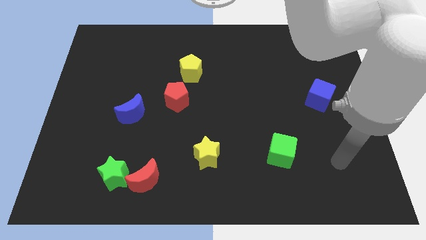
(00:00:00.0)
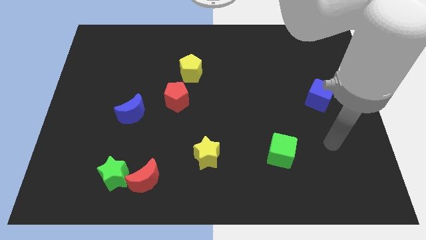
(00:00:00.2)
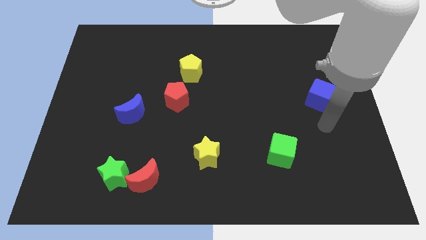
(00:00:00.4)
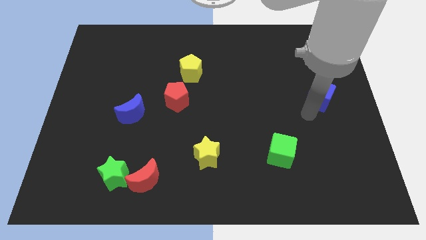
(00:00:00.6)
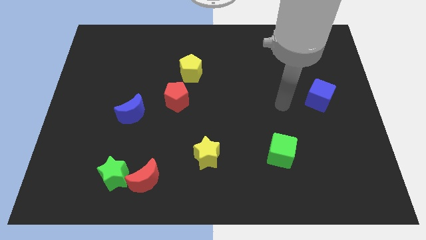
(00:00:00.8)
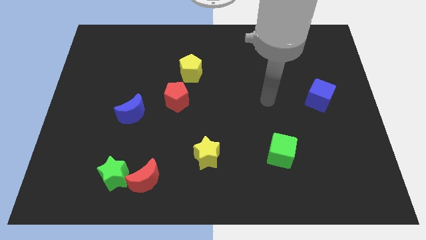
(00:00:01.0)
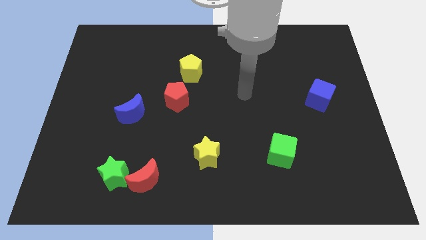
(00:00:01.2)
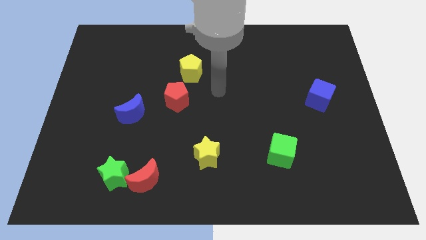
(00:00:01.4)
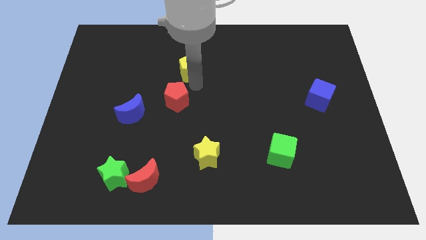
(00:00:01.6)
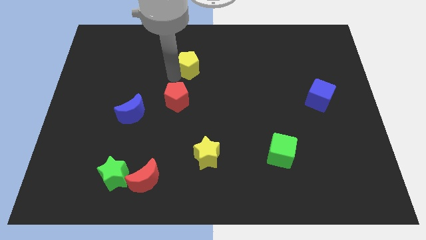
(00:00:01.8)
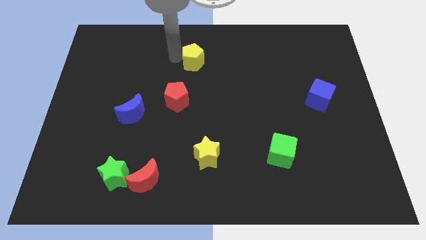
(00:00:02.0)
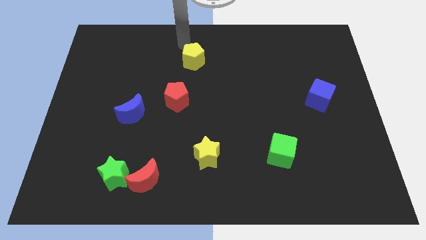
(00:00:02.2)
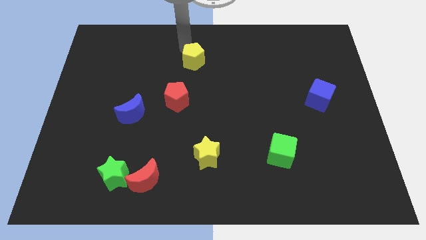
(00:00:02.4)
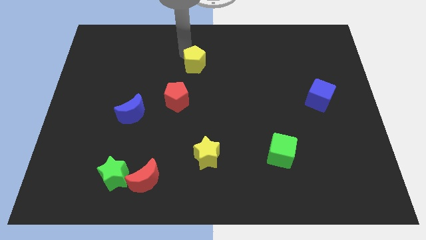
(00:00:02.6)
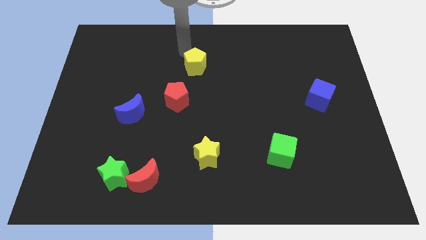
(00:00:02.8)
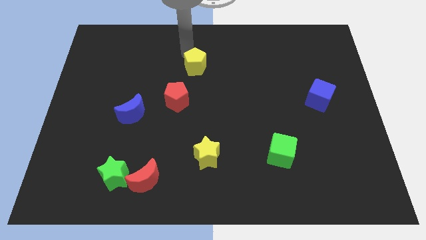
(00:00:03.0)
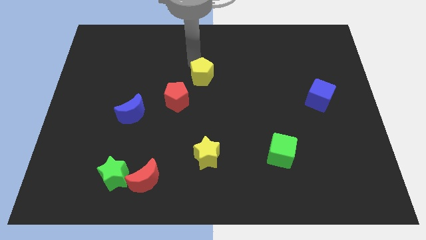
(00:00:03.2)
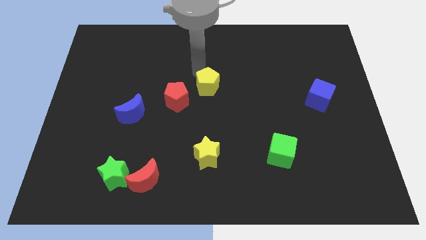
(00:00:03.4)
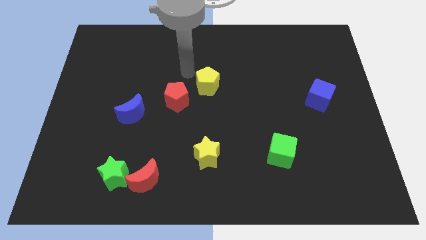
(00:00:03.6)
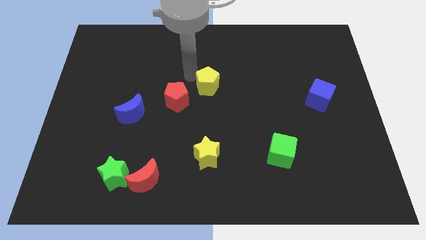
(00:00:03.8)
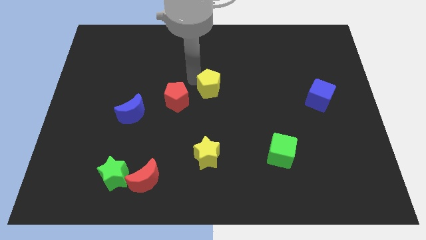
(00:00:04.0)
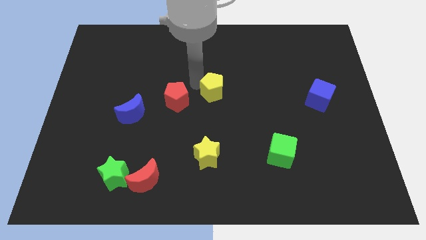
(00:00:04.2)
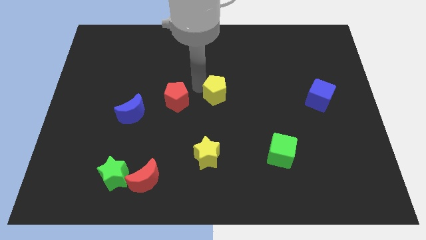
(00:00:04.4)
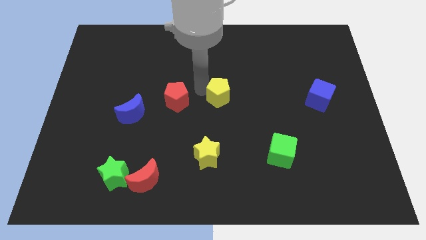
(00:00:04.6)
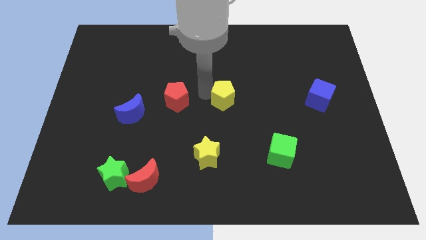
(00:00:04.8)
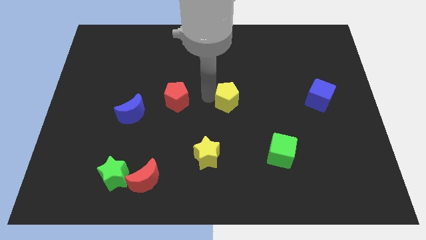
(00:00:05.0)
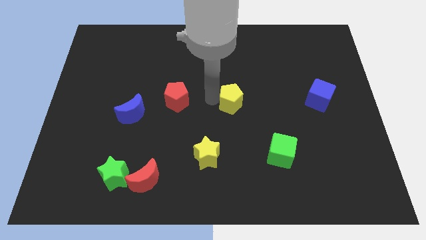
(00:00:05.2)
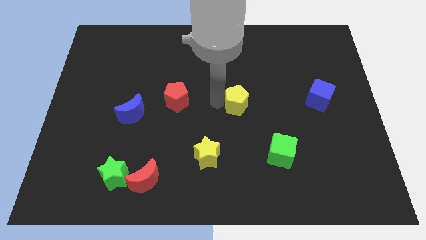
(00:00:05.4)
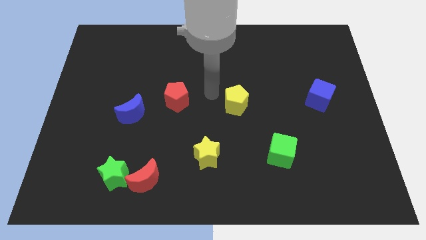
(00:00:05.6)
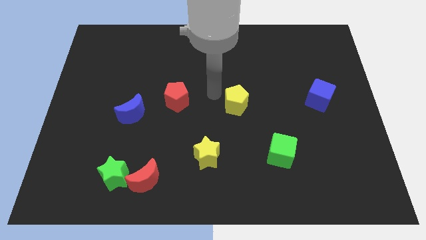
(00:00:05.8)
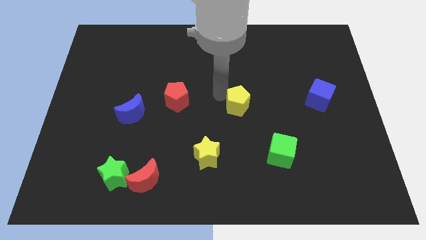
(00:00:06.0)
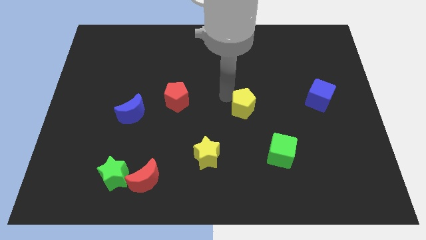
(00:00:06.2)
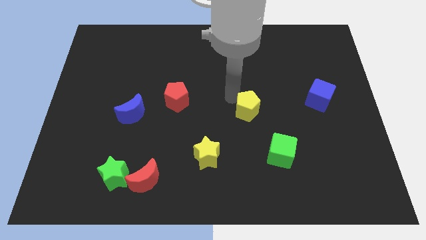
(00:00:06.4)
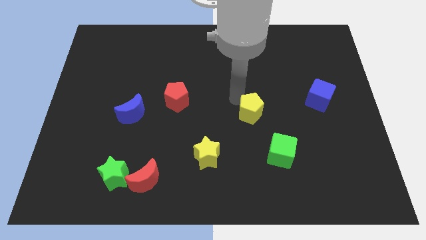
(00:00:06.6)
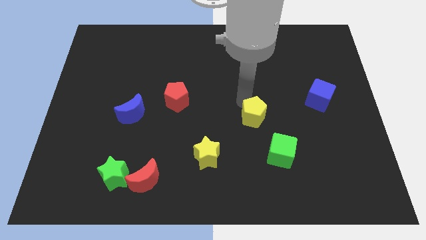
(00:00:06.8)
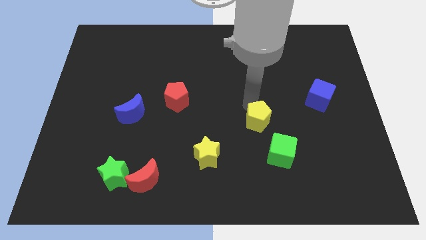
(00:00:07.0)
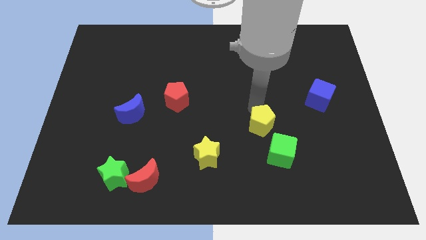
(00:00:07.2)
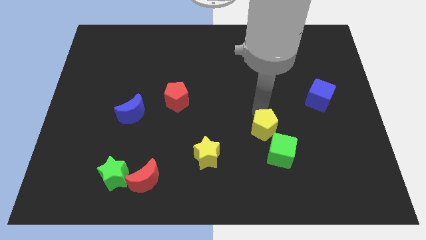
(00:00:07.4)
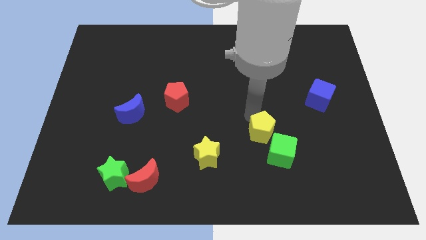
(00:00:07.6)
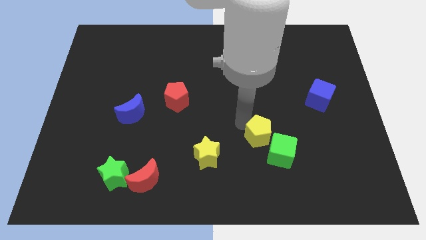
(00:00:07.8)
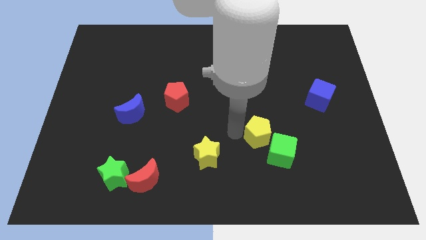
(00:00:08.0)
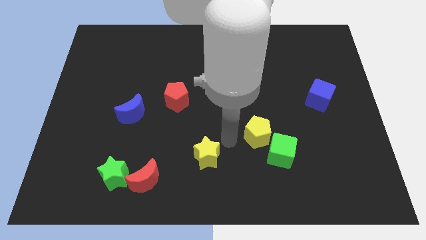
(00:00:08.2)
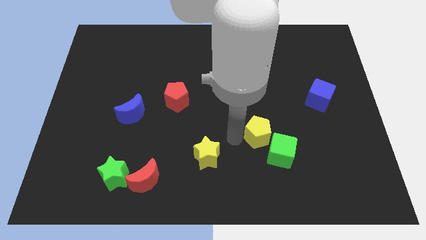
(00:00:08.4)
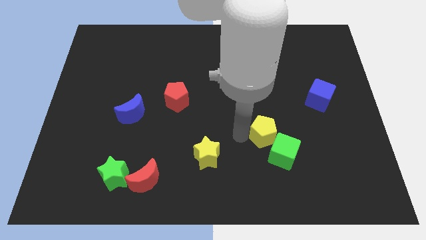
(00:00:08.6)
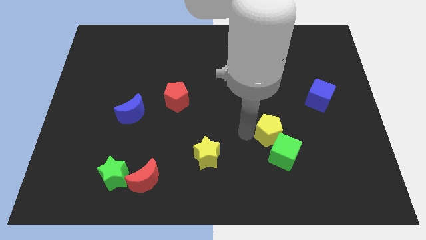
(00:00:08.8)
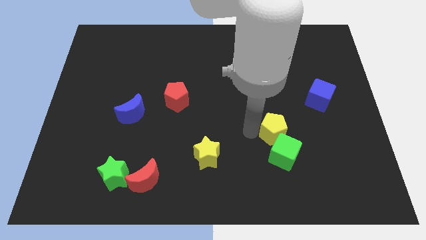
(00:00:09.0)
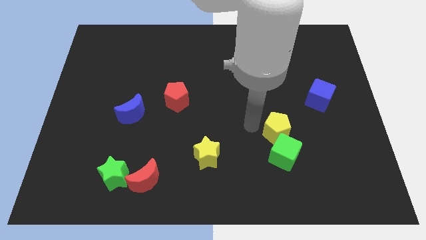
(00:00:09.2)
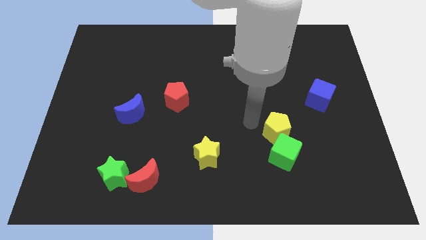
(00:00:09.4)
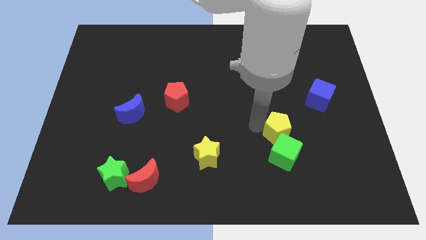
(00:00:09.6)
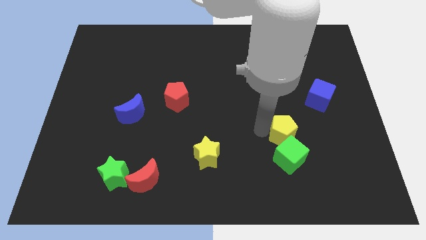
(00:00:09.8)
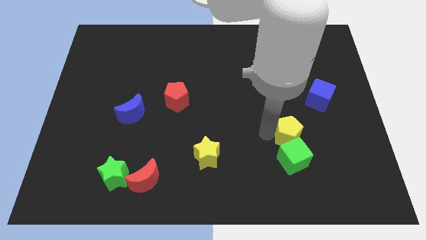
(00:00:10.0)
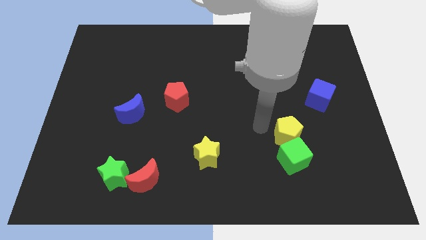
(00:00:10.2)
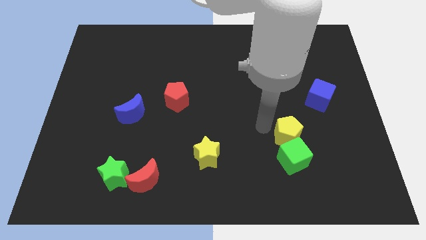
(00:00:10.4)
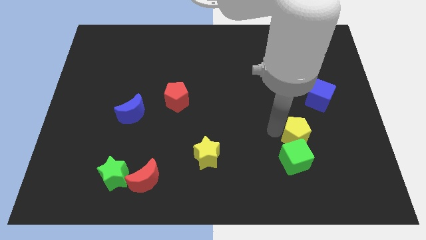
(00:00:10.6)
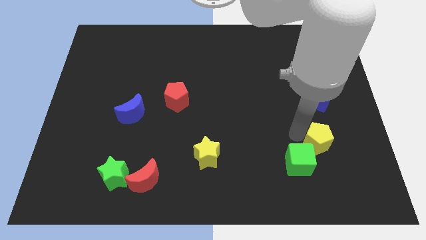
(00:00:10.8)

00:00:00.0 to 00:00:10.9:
slide the yellow pentagon to the right side of the green cube

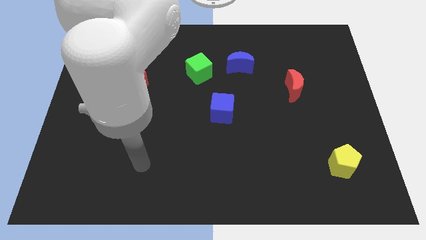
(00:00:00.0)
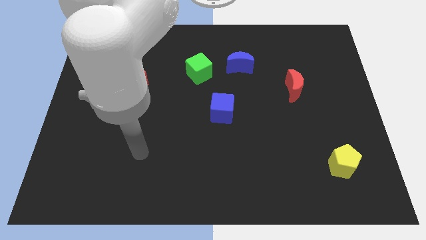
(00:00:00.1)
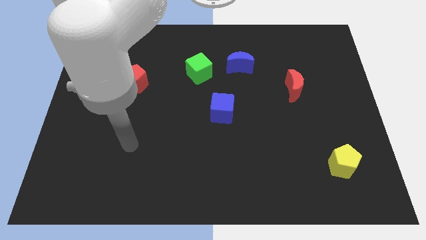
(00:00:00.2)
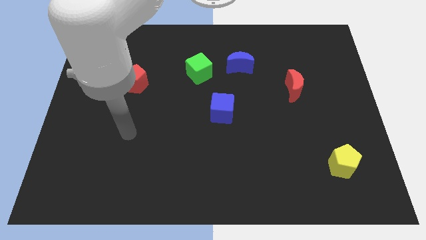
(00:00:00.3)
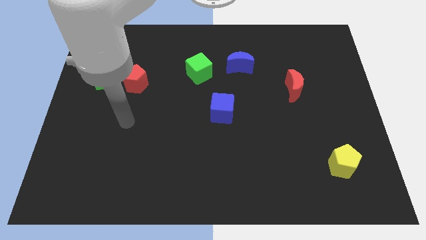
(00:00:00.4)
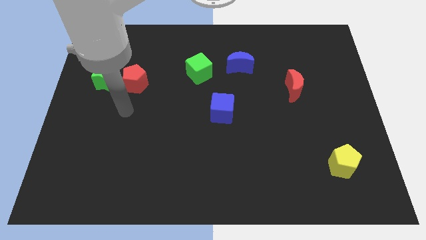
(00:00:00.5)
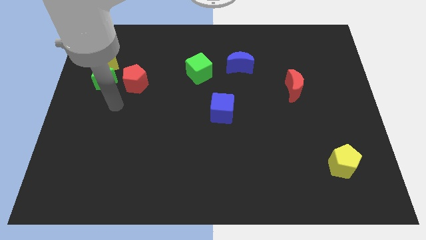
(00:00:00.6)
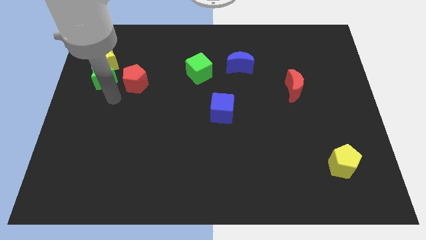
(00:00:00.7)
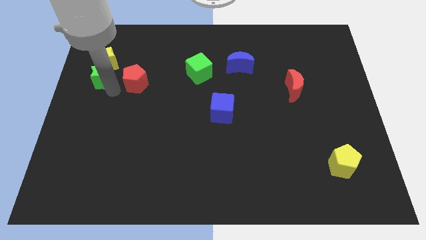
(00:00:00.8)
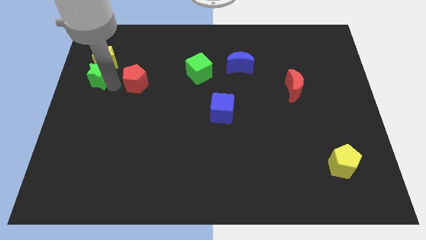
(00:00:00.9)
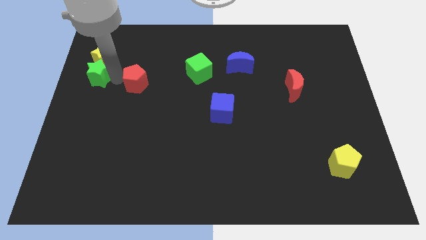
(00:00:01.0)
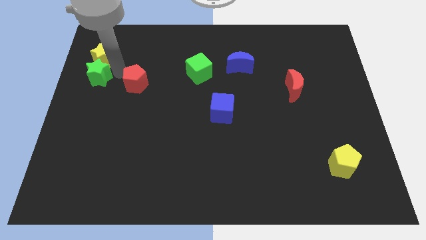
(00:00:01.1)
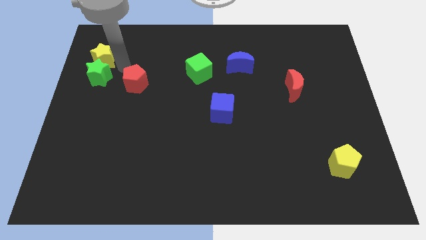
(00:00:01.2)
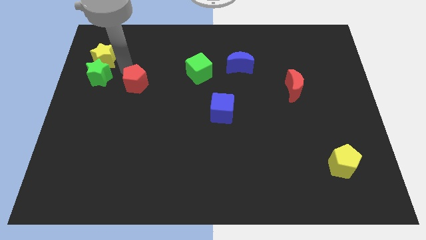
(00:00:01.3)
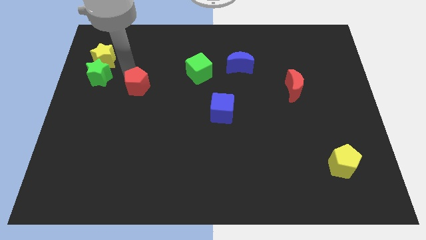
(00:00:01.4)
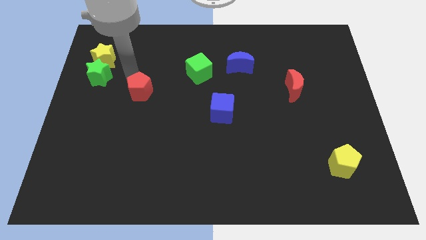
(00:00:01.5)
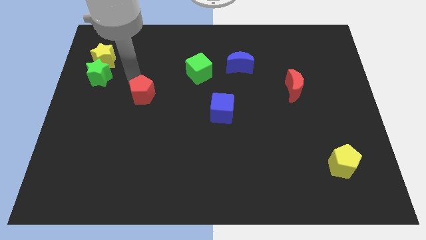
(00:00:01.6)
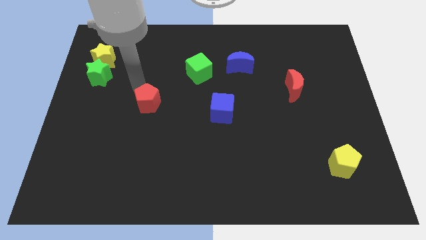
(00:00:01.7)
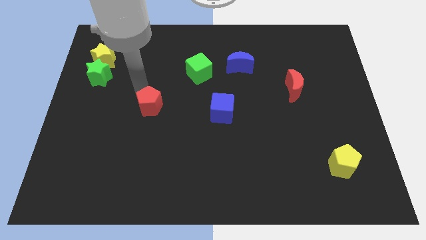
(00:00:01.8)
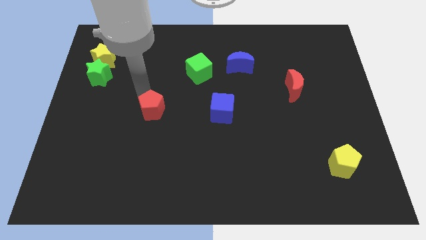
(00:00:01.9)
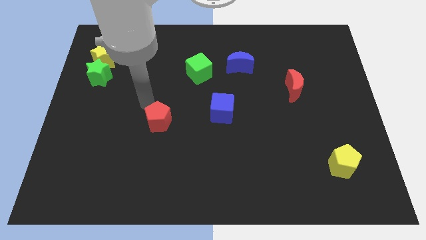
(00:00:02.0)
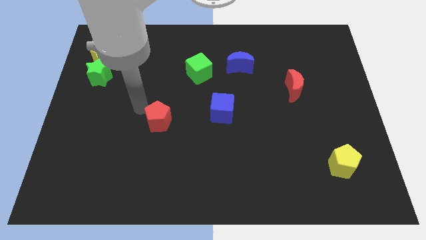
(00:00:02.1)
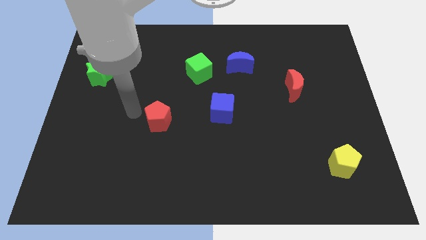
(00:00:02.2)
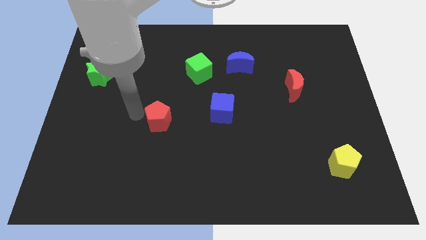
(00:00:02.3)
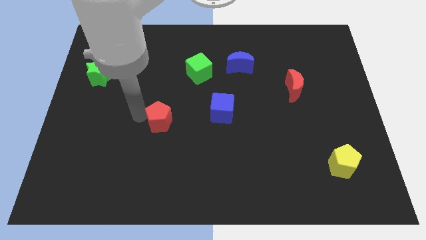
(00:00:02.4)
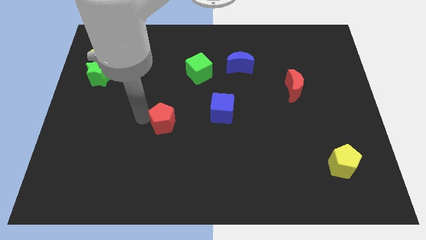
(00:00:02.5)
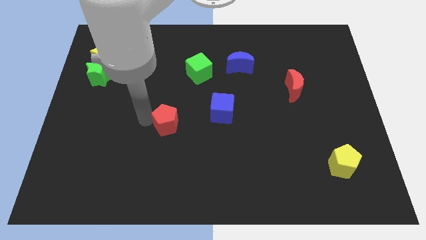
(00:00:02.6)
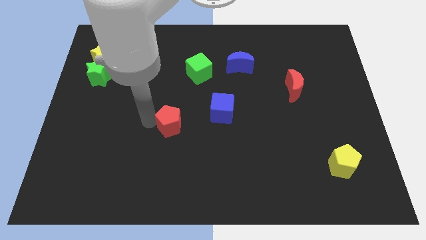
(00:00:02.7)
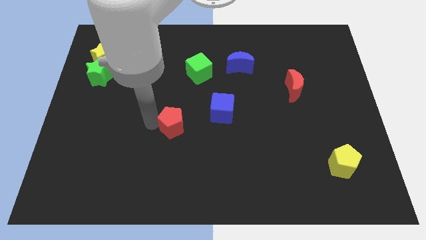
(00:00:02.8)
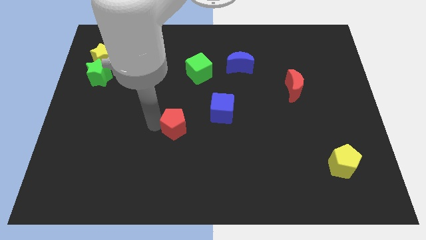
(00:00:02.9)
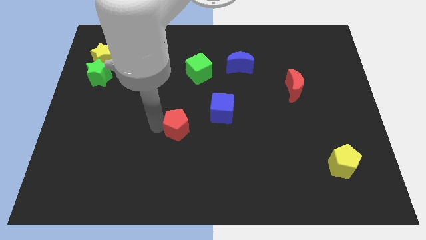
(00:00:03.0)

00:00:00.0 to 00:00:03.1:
put the red pentagon to the bottom left of the blue cube
